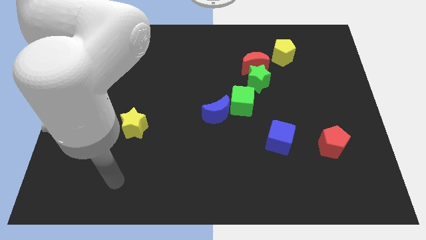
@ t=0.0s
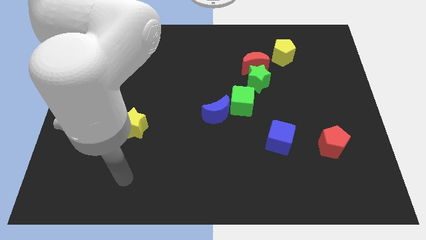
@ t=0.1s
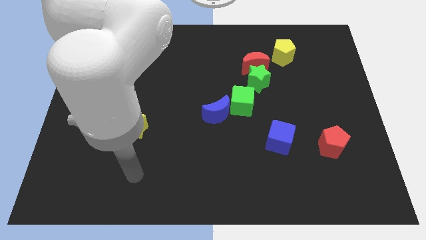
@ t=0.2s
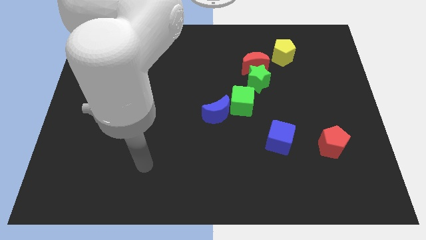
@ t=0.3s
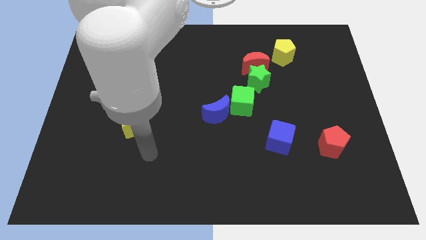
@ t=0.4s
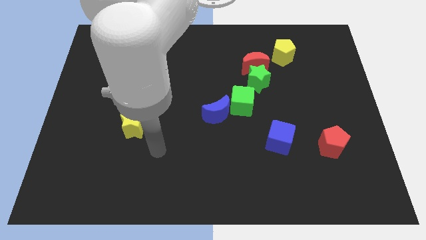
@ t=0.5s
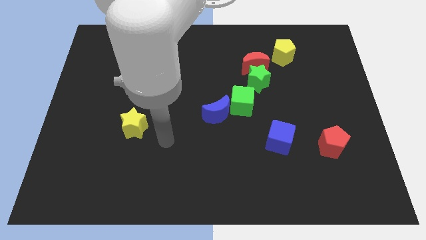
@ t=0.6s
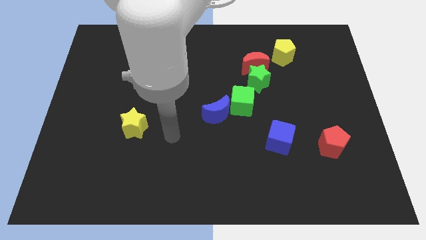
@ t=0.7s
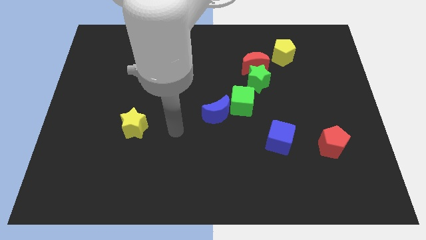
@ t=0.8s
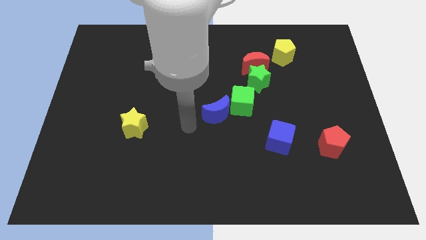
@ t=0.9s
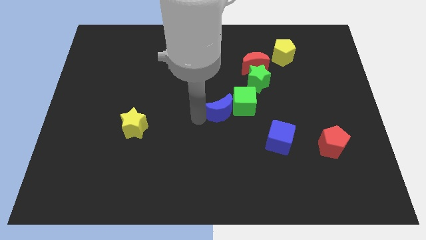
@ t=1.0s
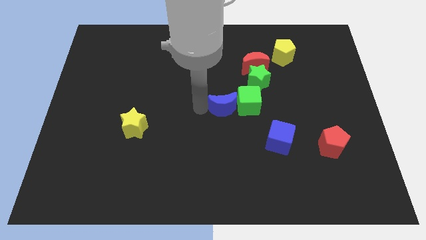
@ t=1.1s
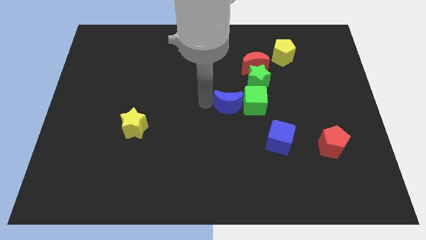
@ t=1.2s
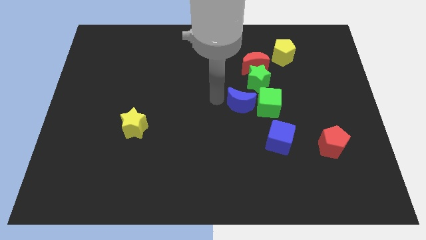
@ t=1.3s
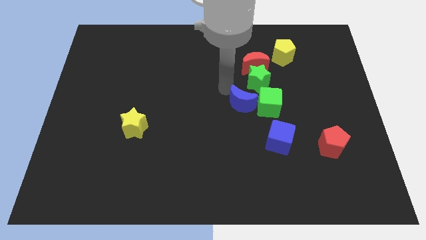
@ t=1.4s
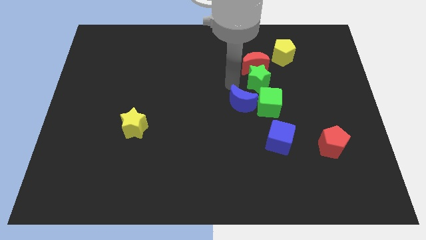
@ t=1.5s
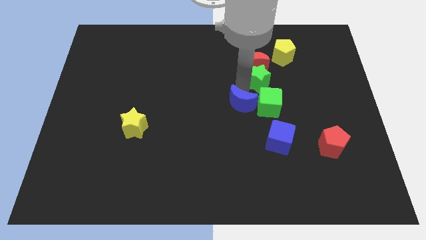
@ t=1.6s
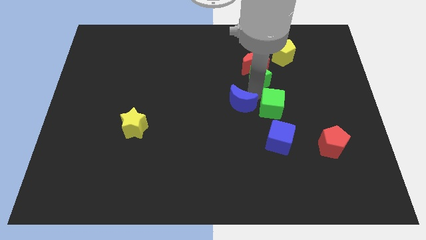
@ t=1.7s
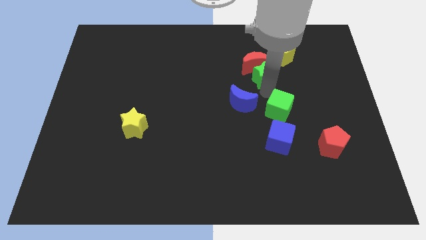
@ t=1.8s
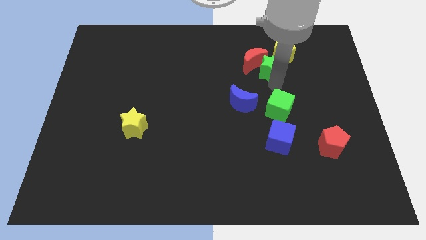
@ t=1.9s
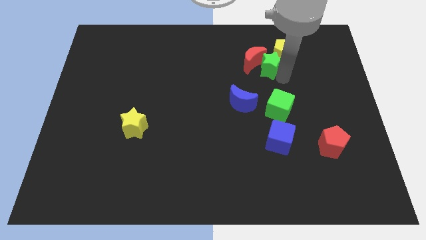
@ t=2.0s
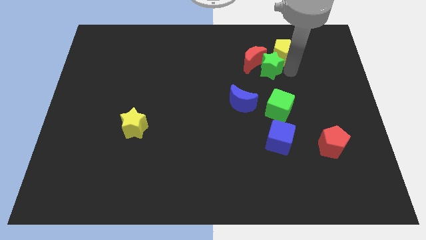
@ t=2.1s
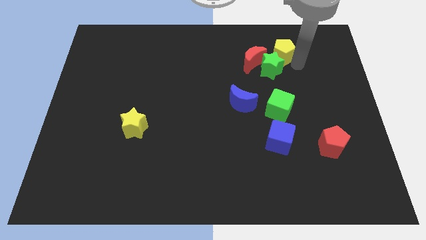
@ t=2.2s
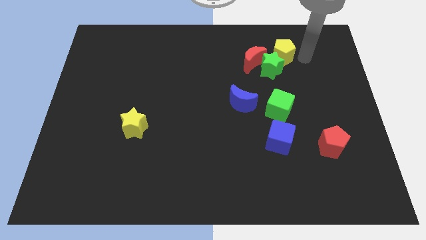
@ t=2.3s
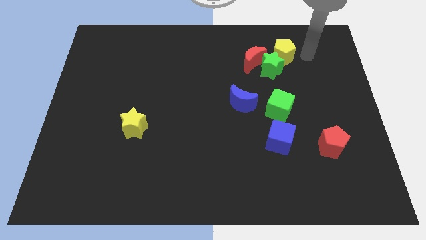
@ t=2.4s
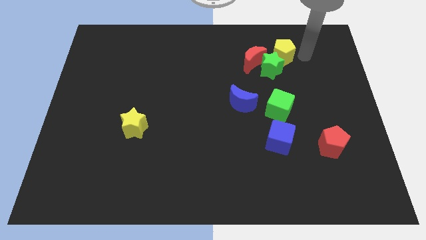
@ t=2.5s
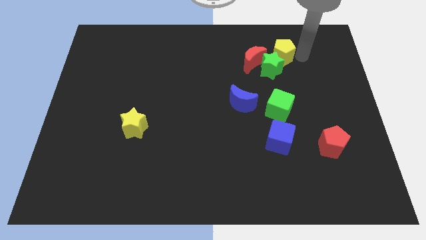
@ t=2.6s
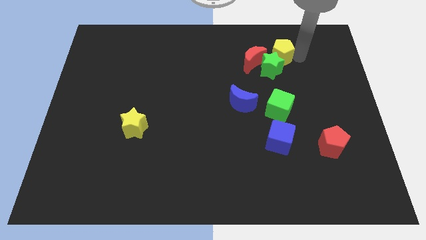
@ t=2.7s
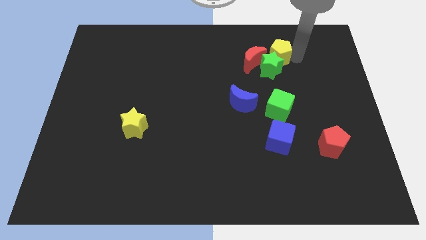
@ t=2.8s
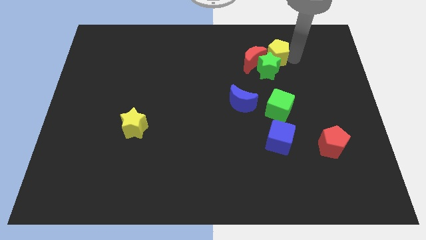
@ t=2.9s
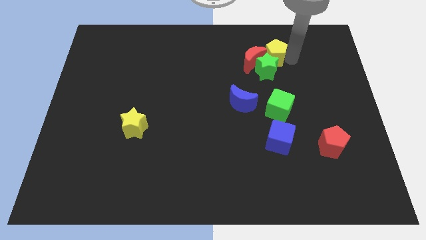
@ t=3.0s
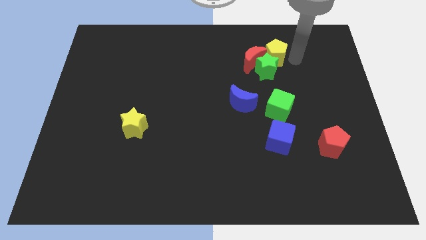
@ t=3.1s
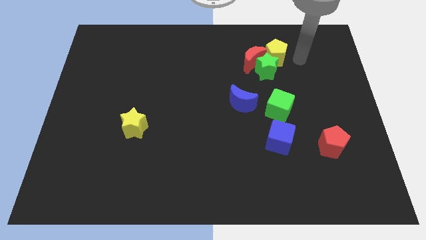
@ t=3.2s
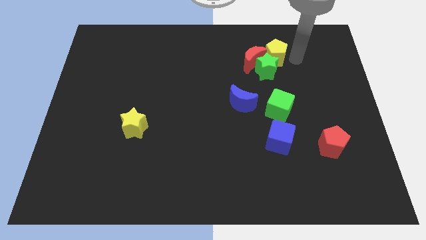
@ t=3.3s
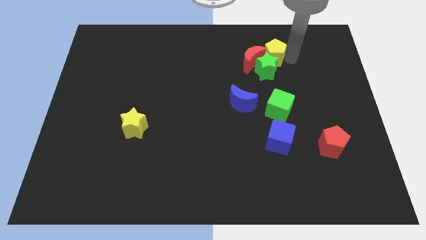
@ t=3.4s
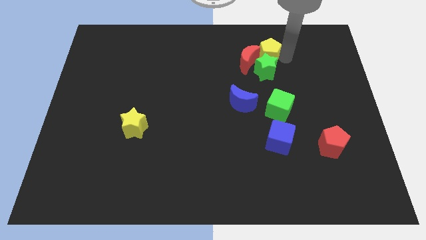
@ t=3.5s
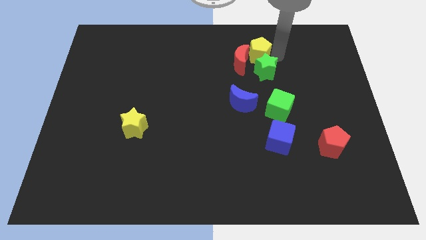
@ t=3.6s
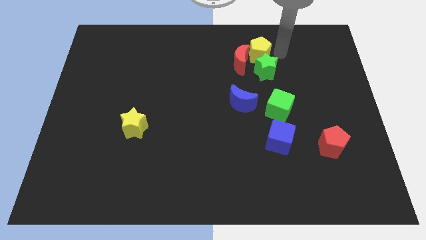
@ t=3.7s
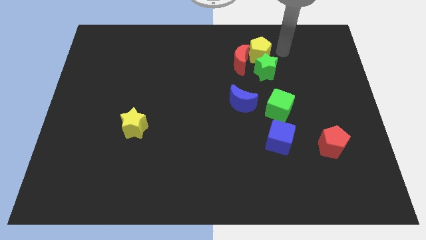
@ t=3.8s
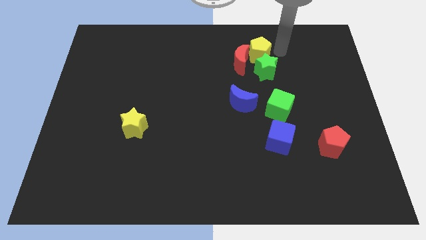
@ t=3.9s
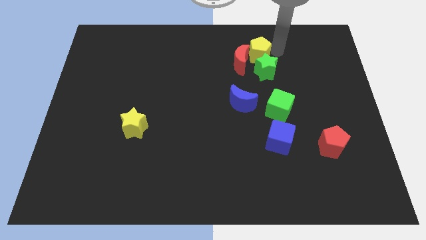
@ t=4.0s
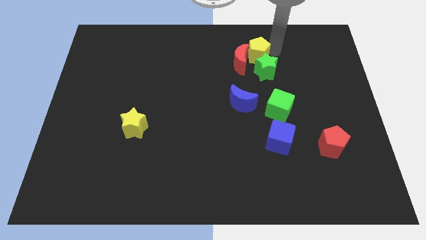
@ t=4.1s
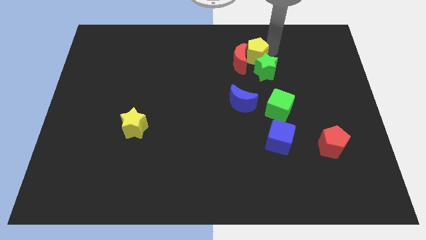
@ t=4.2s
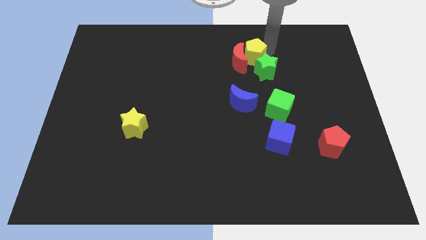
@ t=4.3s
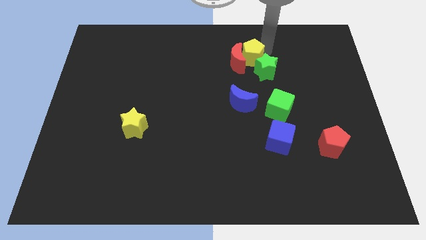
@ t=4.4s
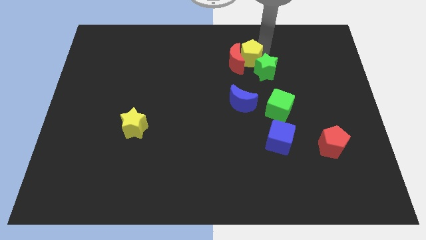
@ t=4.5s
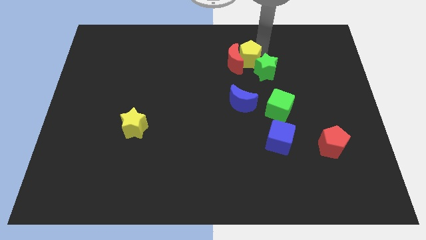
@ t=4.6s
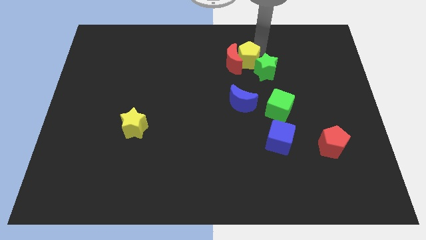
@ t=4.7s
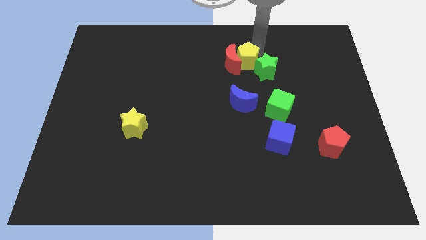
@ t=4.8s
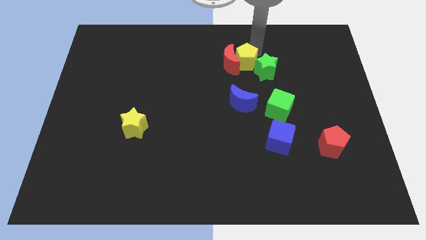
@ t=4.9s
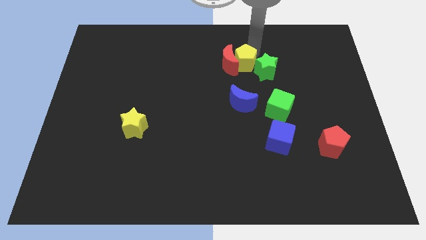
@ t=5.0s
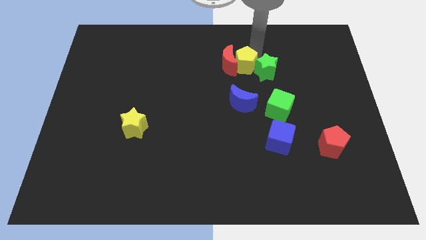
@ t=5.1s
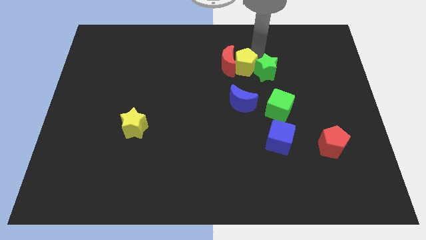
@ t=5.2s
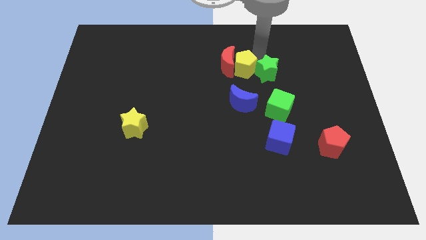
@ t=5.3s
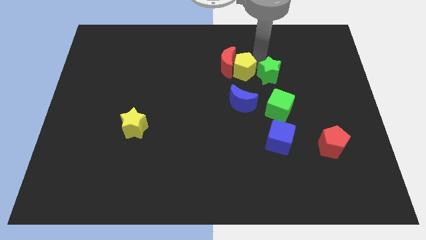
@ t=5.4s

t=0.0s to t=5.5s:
move the yellow pentagon to the center of the board
